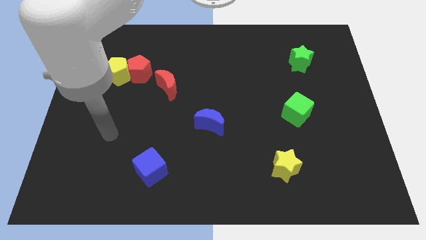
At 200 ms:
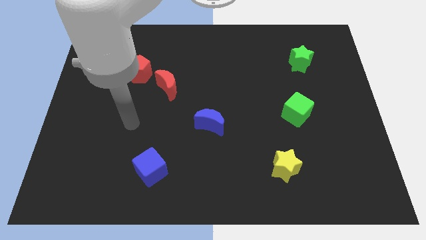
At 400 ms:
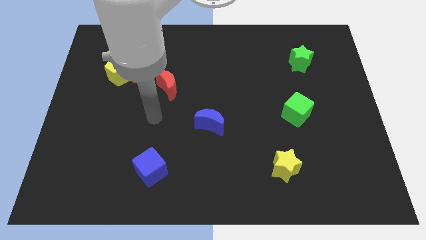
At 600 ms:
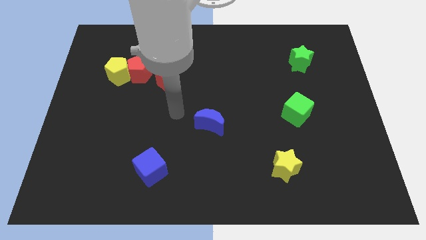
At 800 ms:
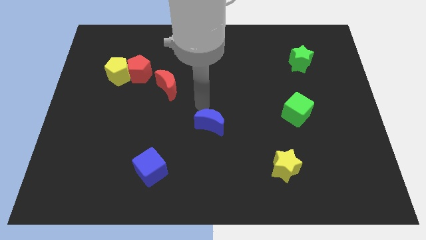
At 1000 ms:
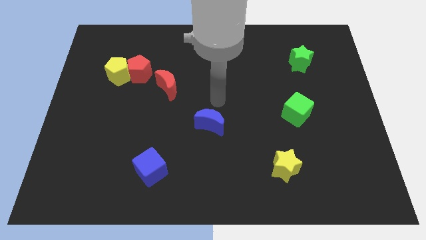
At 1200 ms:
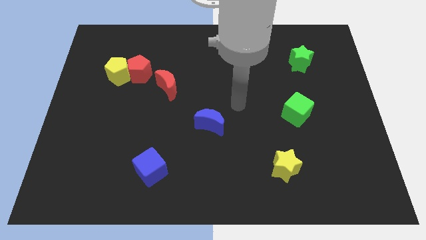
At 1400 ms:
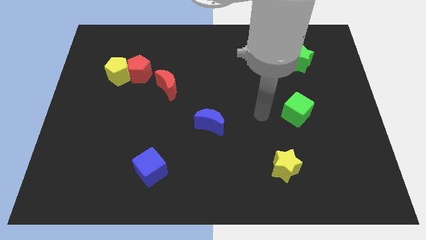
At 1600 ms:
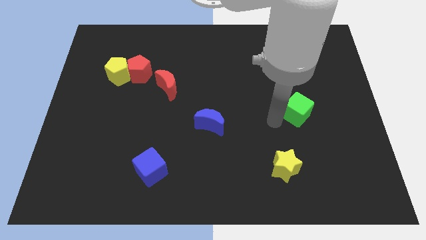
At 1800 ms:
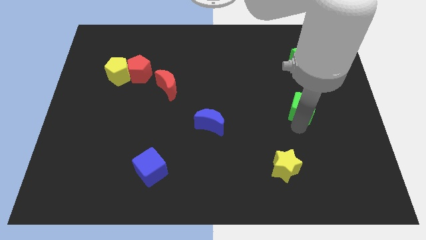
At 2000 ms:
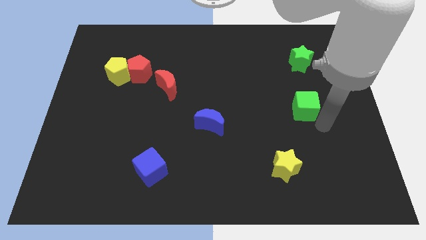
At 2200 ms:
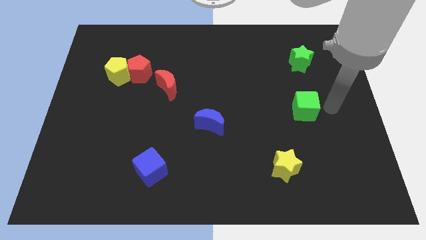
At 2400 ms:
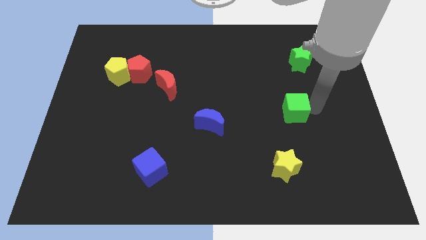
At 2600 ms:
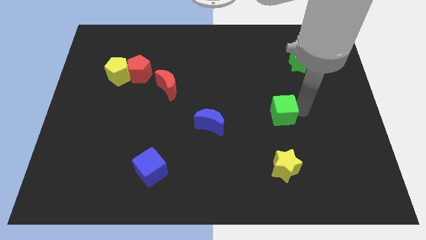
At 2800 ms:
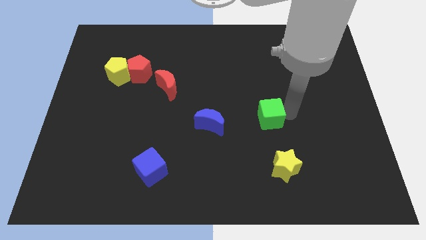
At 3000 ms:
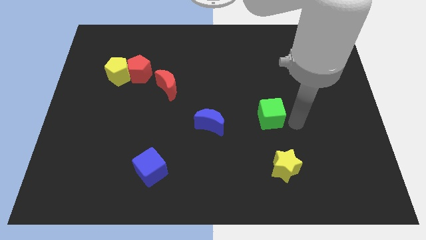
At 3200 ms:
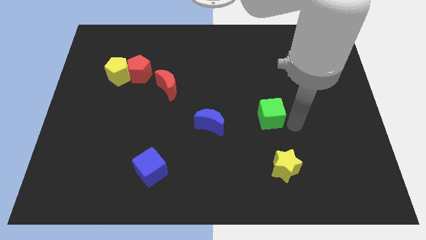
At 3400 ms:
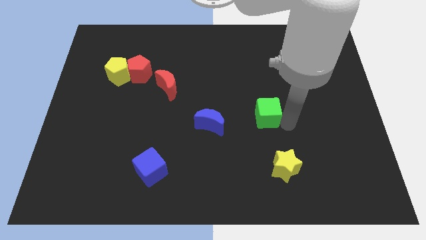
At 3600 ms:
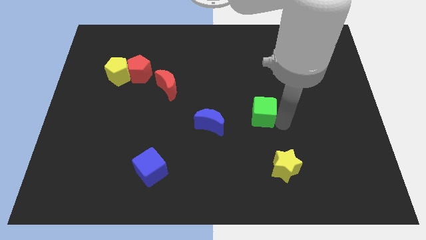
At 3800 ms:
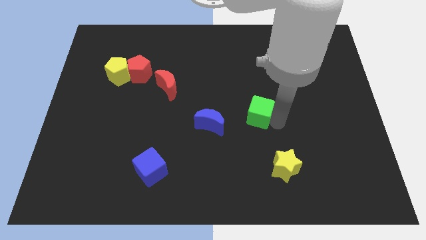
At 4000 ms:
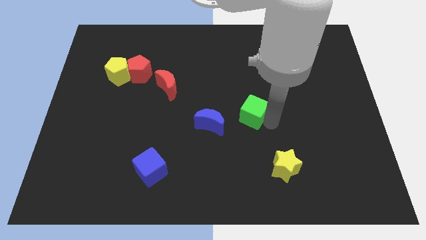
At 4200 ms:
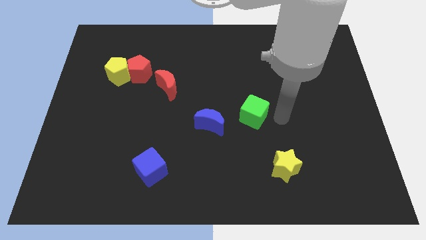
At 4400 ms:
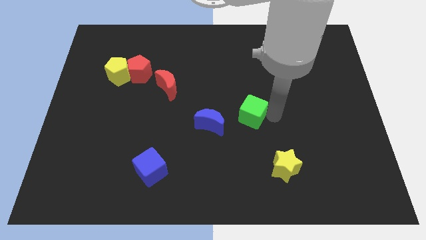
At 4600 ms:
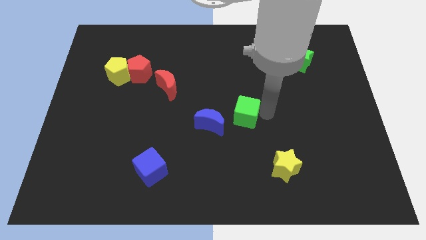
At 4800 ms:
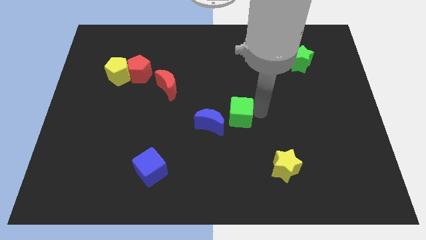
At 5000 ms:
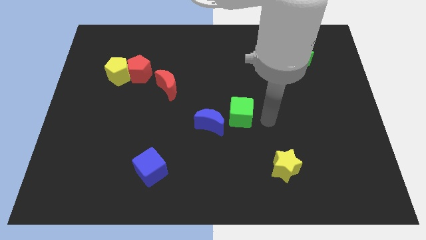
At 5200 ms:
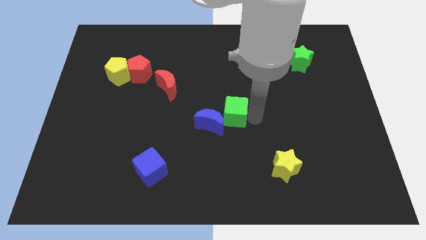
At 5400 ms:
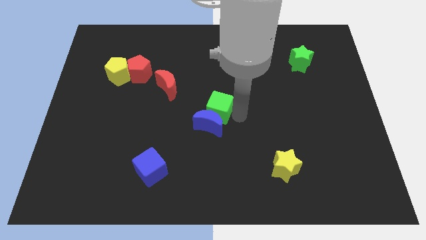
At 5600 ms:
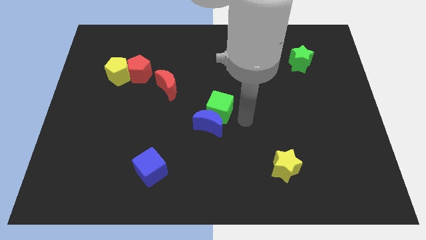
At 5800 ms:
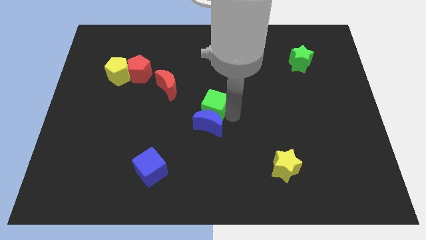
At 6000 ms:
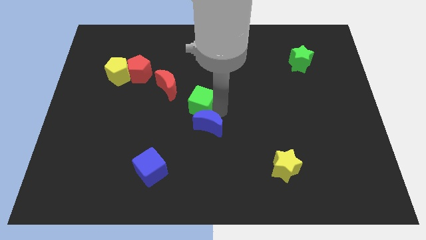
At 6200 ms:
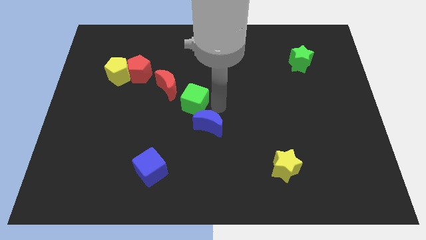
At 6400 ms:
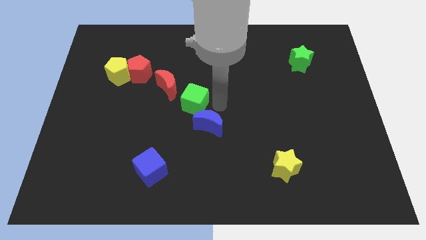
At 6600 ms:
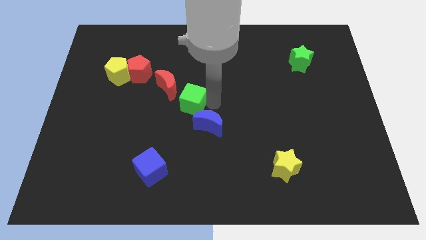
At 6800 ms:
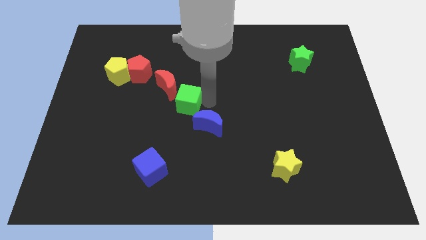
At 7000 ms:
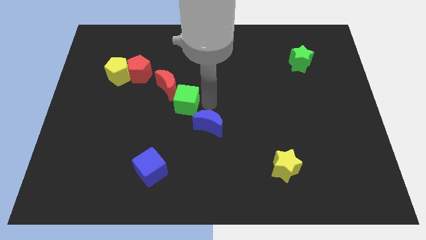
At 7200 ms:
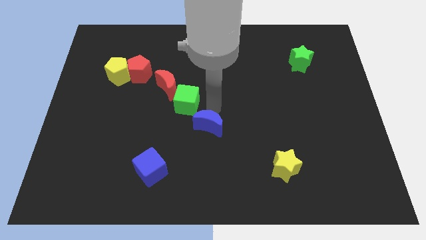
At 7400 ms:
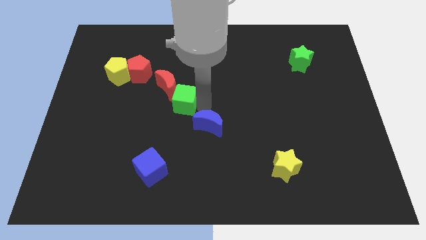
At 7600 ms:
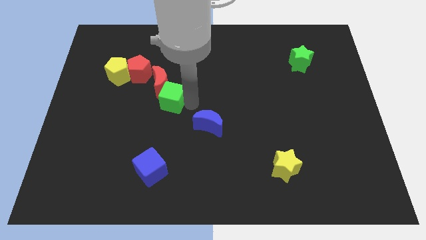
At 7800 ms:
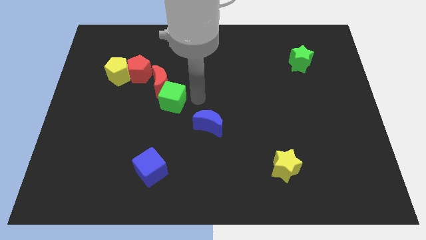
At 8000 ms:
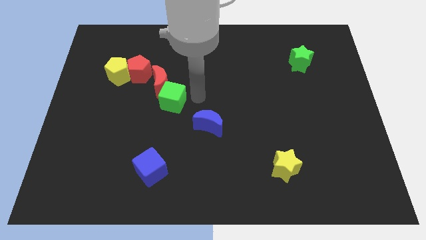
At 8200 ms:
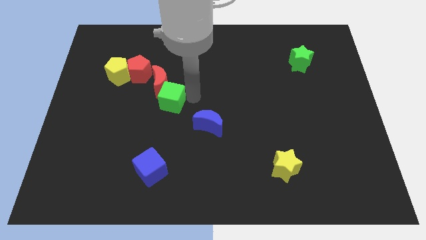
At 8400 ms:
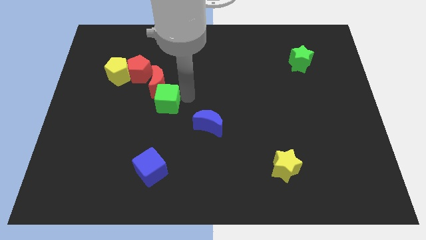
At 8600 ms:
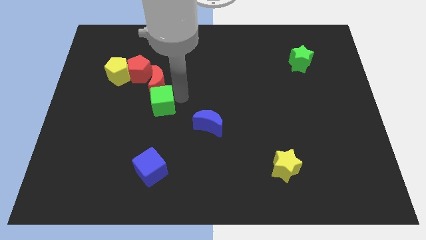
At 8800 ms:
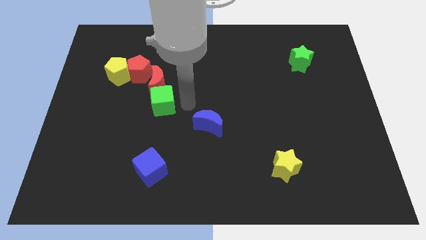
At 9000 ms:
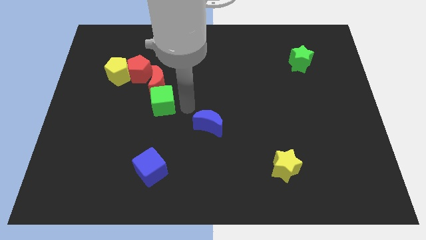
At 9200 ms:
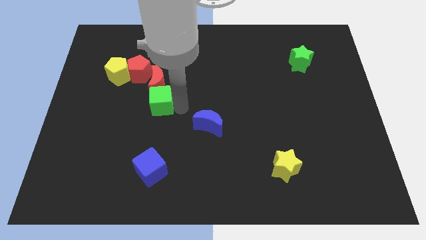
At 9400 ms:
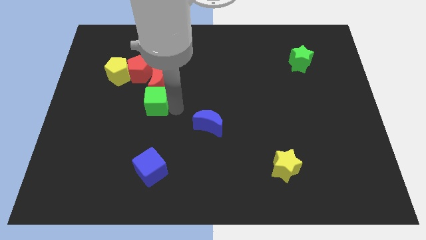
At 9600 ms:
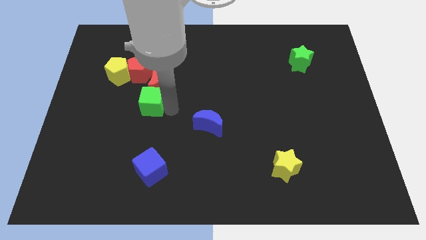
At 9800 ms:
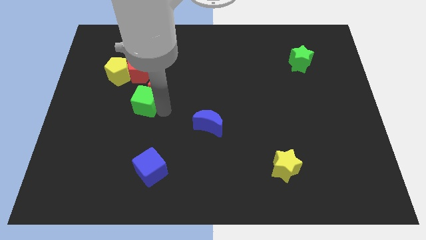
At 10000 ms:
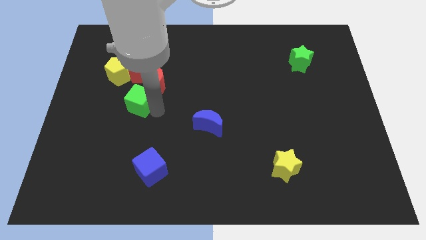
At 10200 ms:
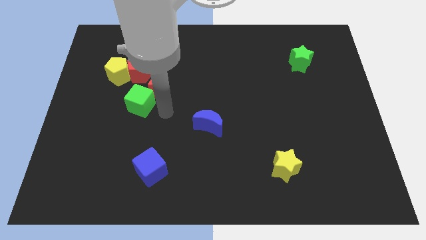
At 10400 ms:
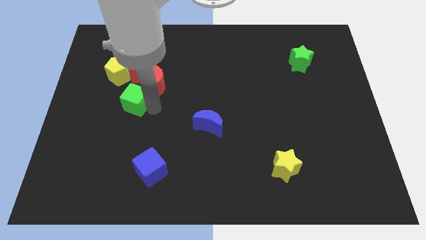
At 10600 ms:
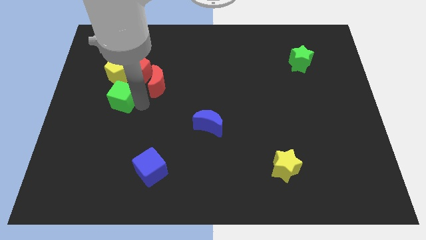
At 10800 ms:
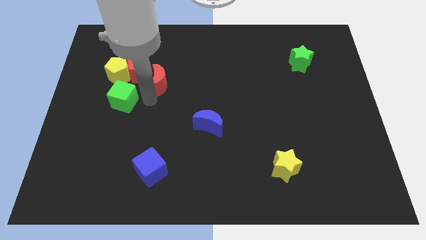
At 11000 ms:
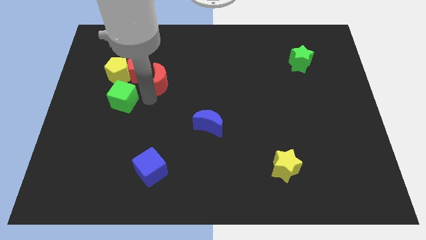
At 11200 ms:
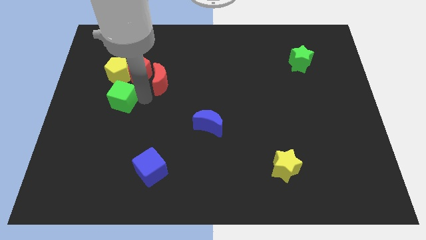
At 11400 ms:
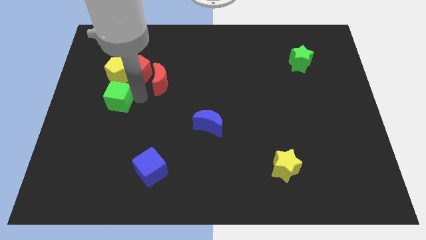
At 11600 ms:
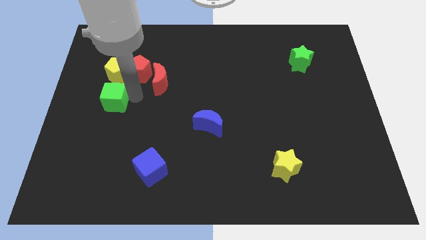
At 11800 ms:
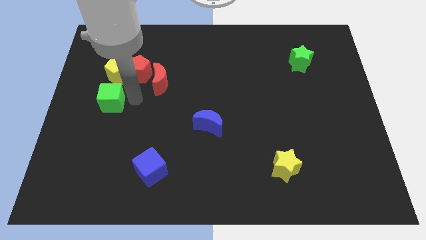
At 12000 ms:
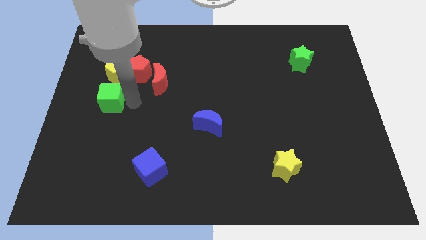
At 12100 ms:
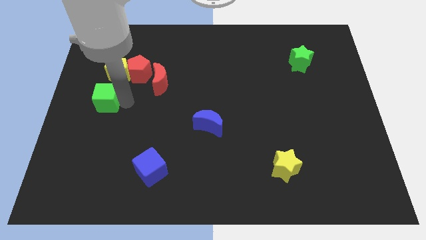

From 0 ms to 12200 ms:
slide the green cube to the left side

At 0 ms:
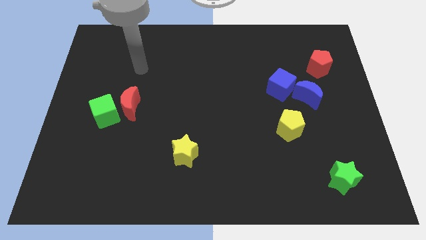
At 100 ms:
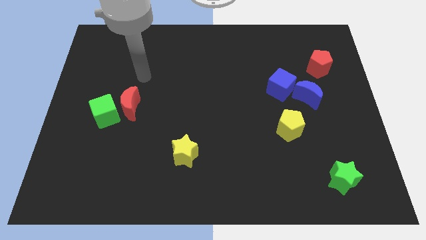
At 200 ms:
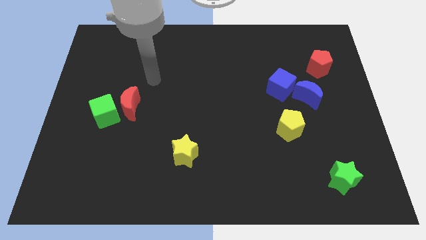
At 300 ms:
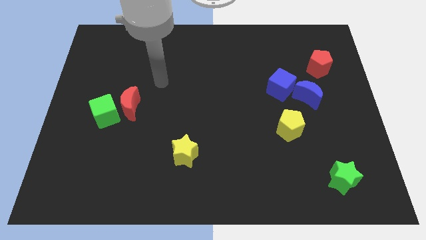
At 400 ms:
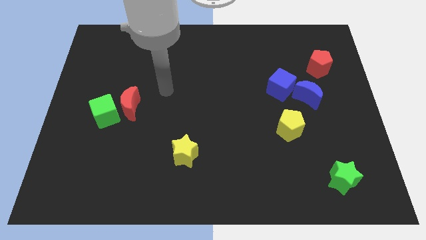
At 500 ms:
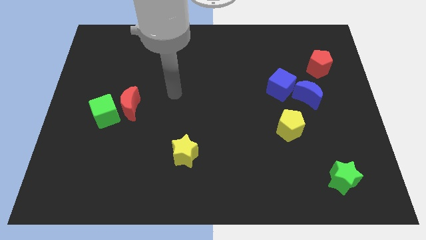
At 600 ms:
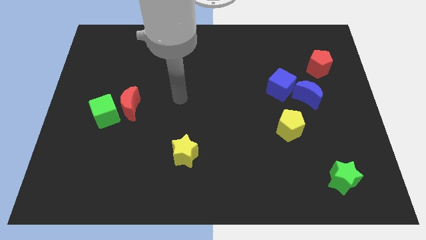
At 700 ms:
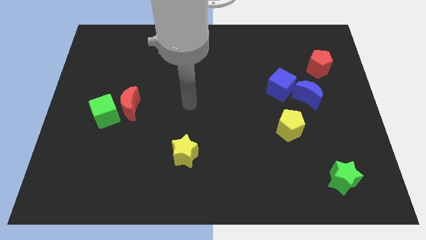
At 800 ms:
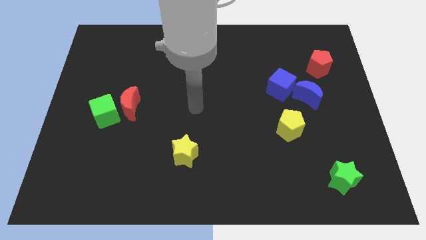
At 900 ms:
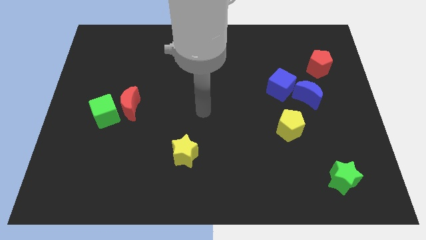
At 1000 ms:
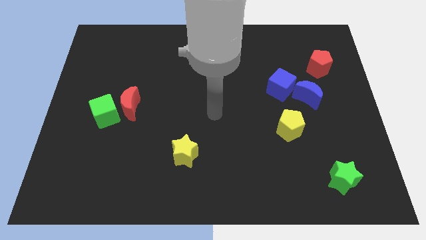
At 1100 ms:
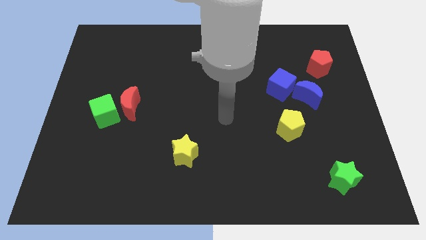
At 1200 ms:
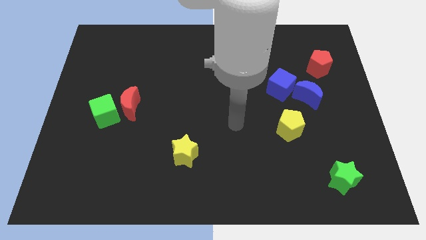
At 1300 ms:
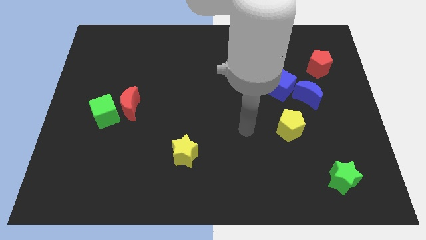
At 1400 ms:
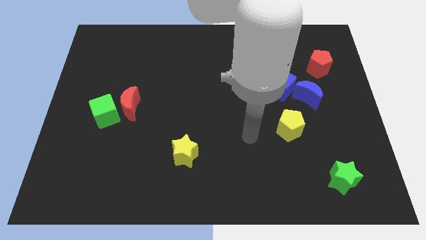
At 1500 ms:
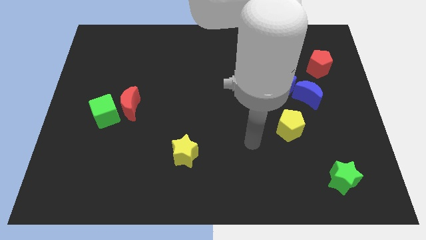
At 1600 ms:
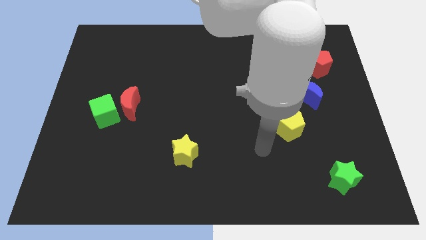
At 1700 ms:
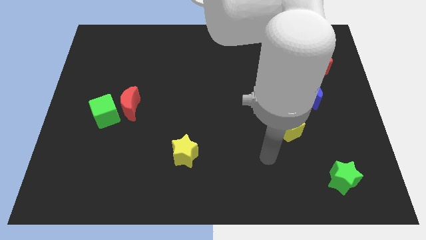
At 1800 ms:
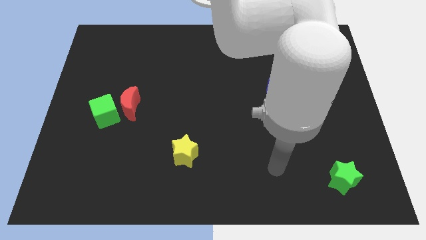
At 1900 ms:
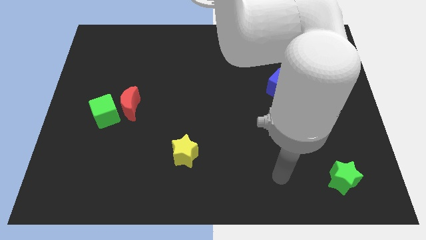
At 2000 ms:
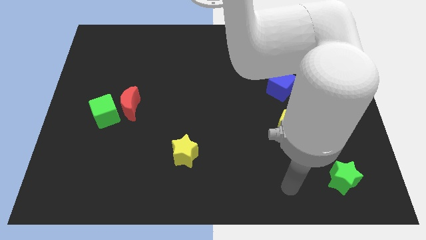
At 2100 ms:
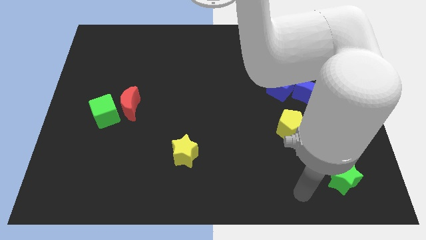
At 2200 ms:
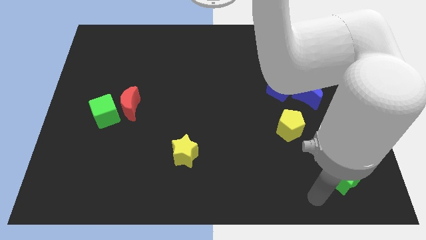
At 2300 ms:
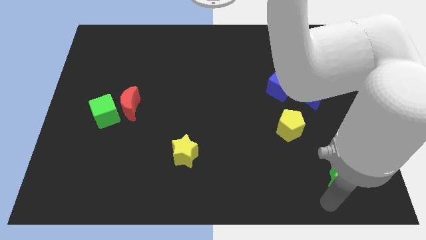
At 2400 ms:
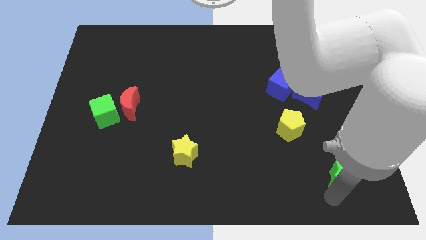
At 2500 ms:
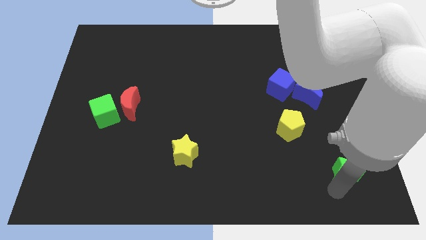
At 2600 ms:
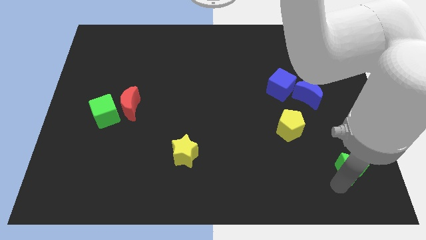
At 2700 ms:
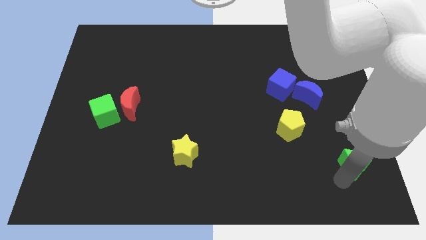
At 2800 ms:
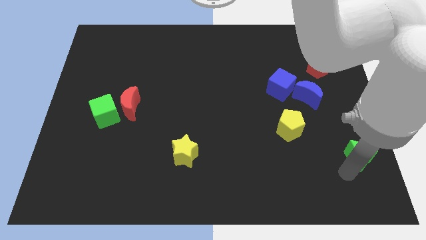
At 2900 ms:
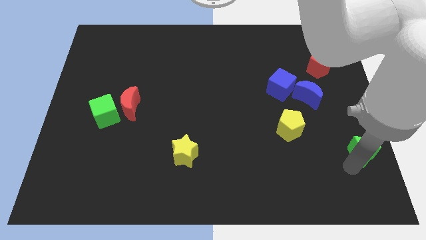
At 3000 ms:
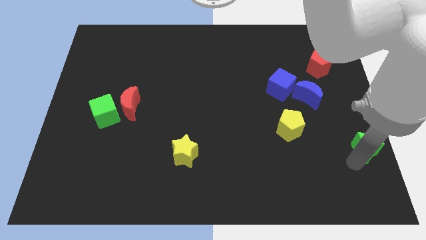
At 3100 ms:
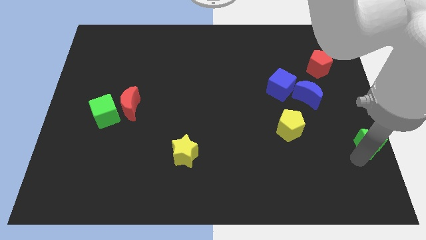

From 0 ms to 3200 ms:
put the green star to the center right
